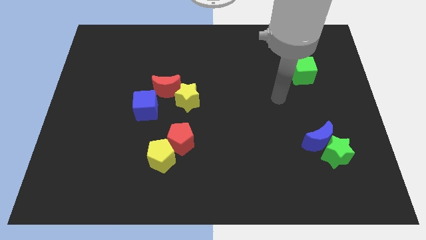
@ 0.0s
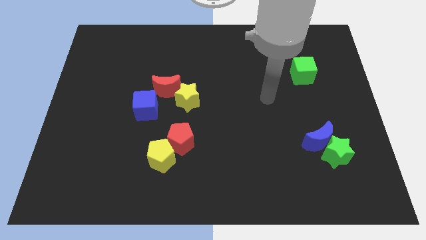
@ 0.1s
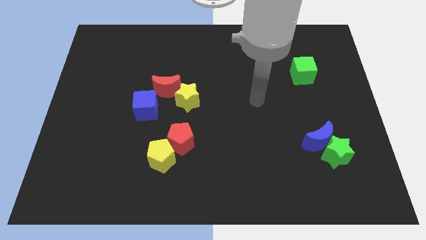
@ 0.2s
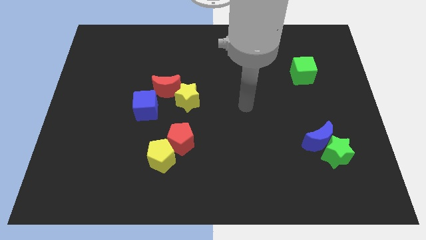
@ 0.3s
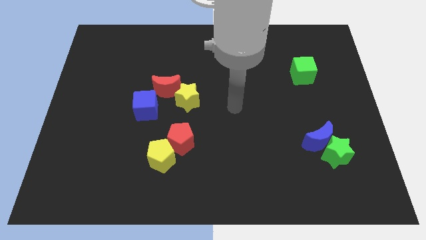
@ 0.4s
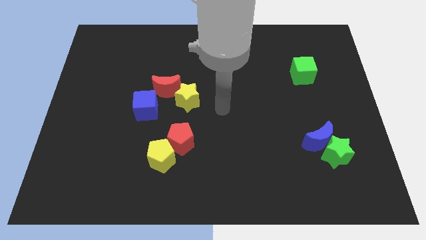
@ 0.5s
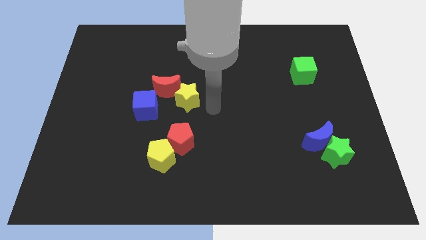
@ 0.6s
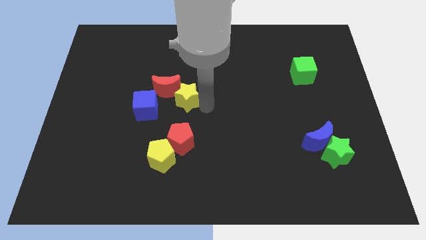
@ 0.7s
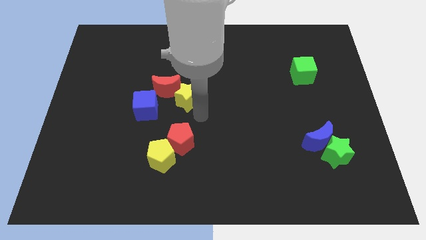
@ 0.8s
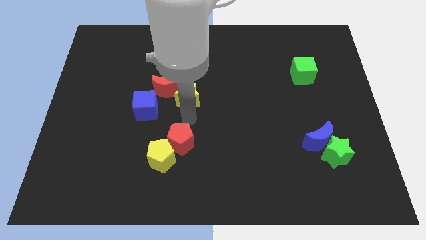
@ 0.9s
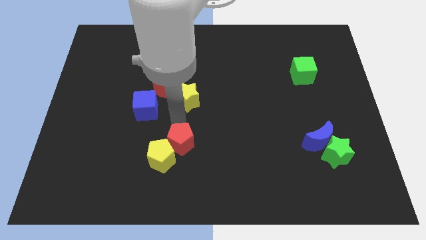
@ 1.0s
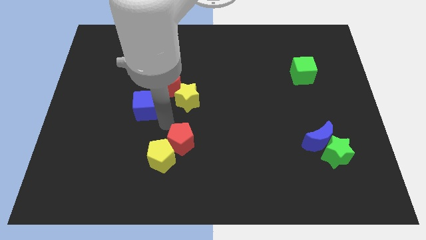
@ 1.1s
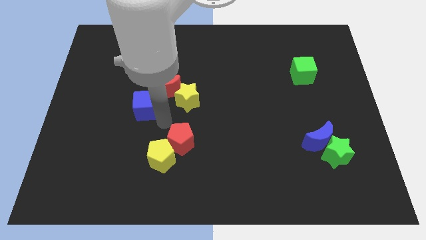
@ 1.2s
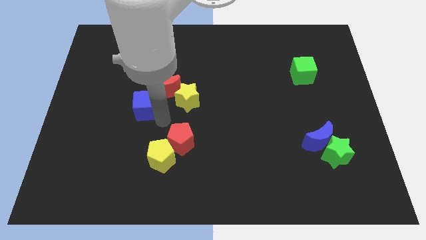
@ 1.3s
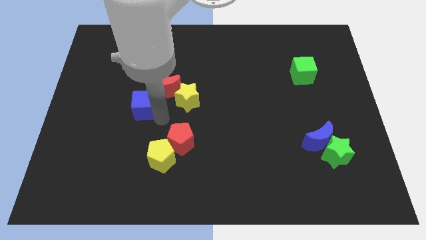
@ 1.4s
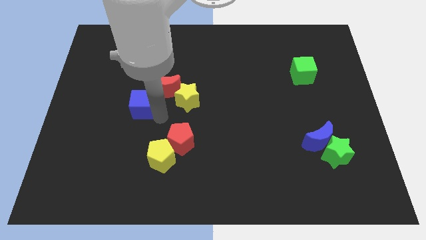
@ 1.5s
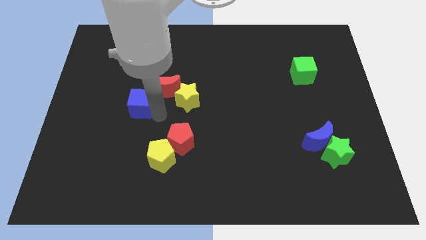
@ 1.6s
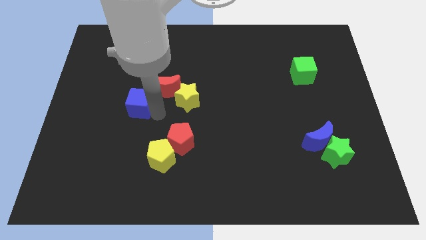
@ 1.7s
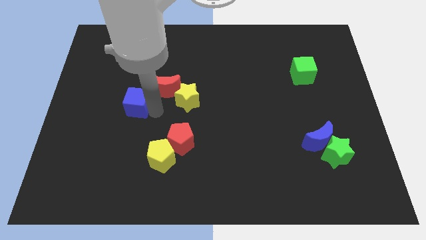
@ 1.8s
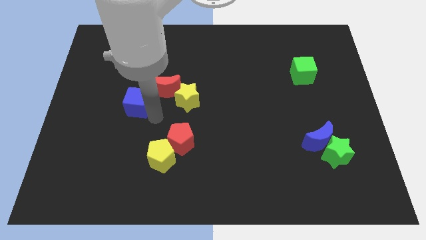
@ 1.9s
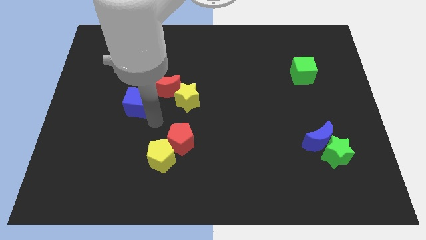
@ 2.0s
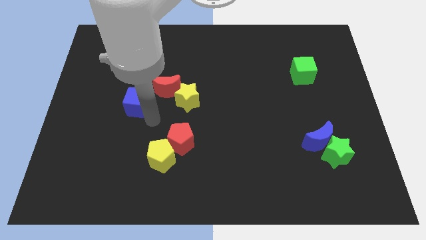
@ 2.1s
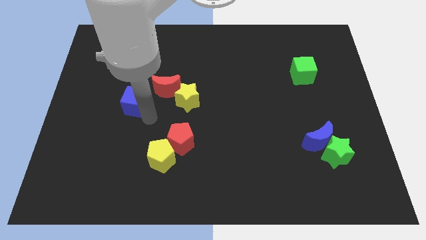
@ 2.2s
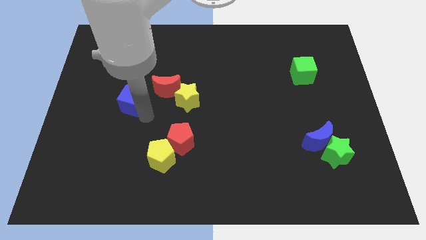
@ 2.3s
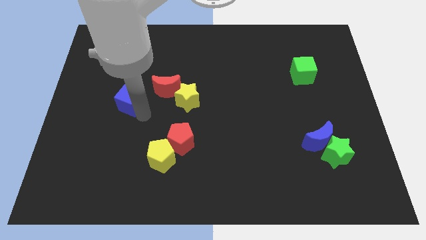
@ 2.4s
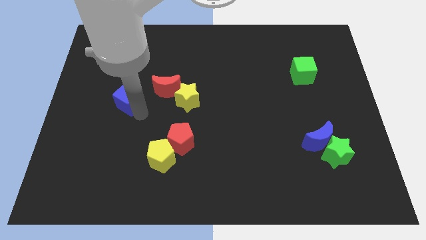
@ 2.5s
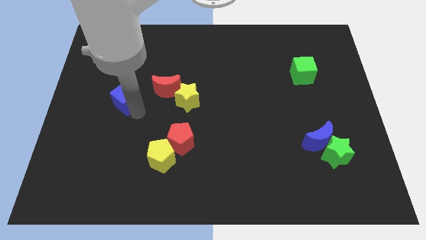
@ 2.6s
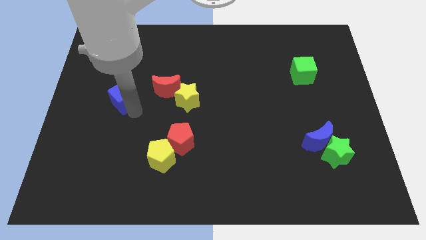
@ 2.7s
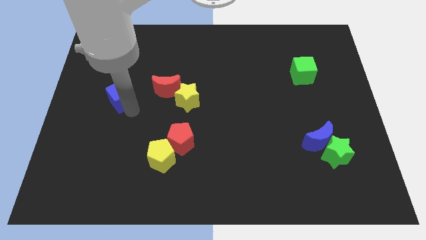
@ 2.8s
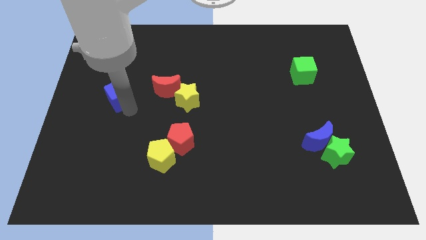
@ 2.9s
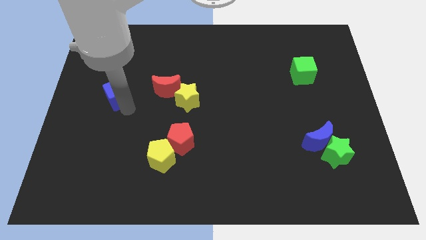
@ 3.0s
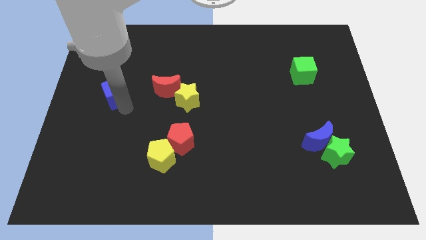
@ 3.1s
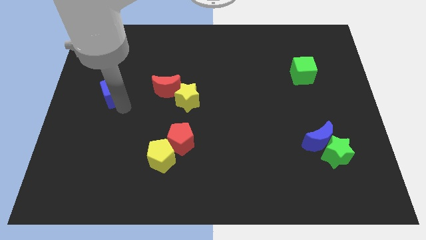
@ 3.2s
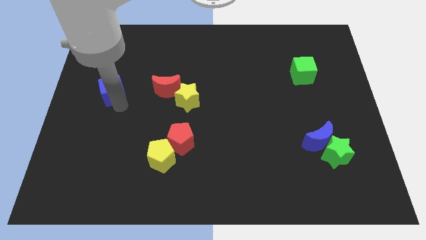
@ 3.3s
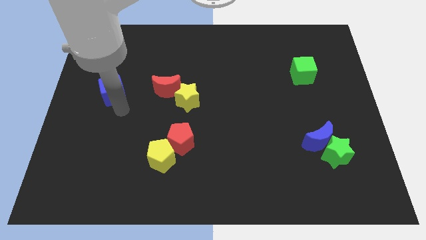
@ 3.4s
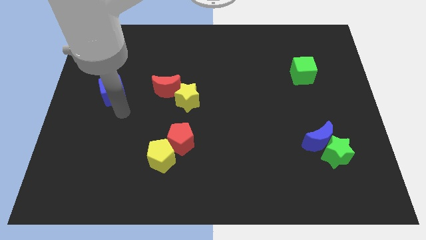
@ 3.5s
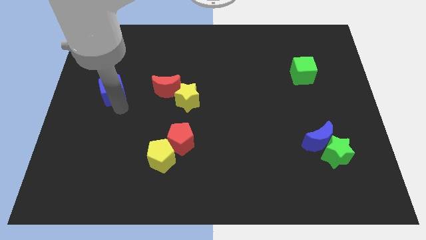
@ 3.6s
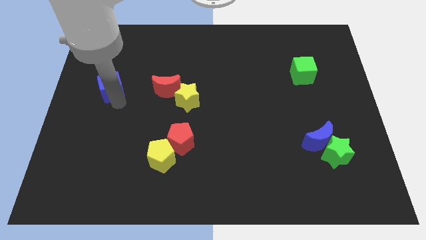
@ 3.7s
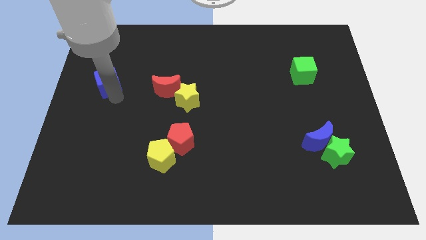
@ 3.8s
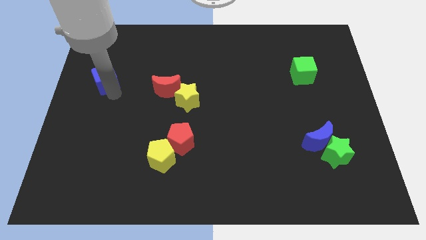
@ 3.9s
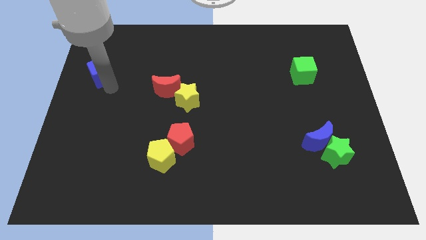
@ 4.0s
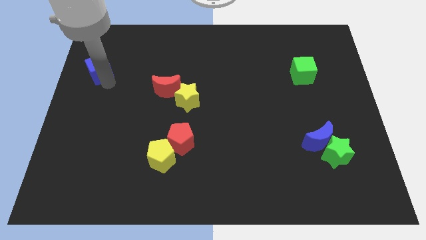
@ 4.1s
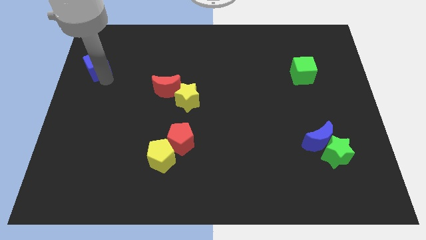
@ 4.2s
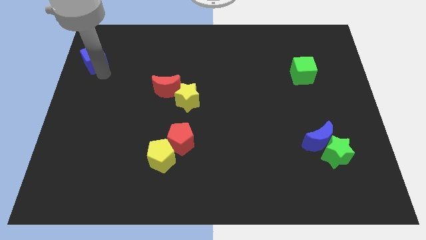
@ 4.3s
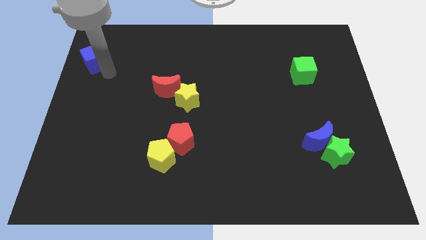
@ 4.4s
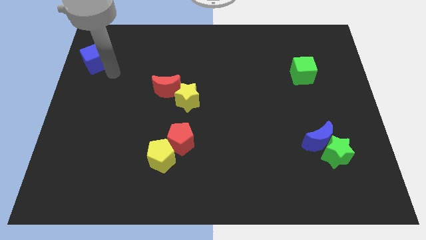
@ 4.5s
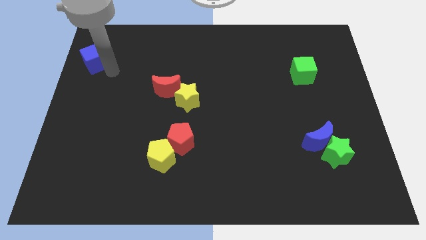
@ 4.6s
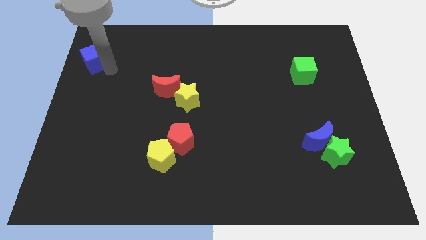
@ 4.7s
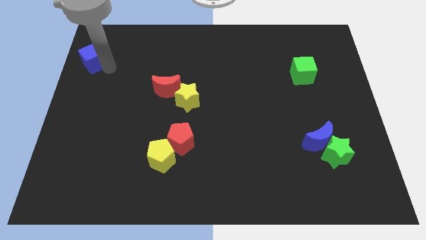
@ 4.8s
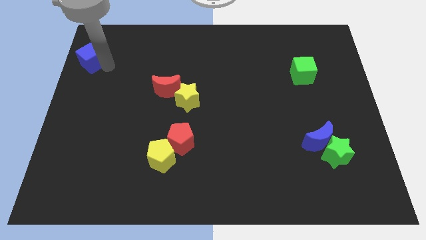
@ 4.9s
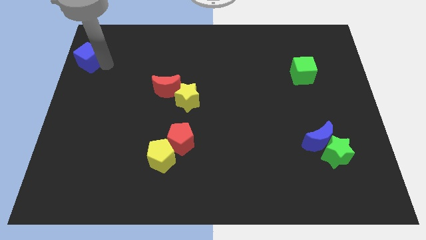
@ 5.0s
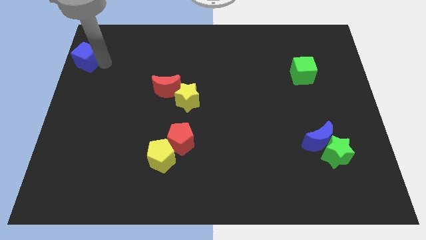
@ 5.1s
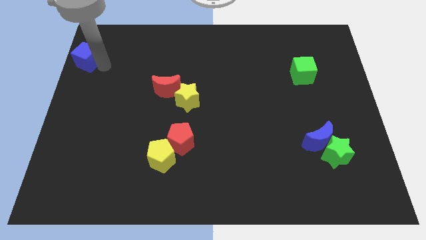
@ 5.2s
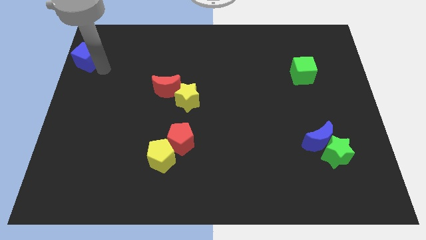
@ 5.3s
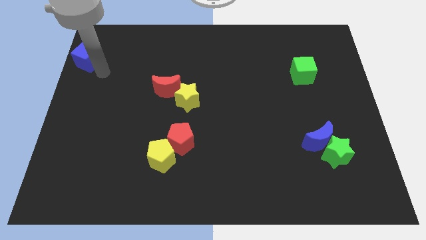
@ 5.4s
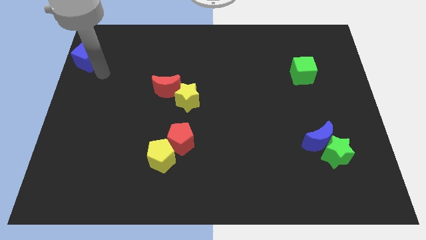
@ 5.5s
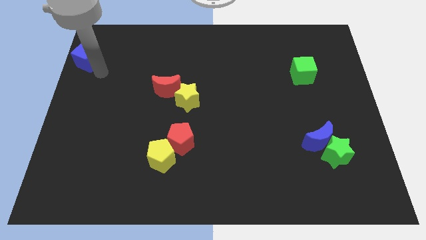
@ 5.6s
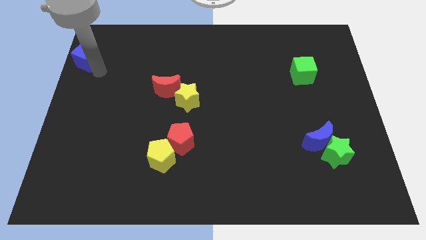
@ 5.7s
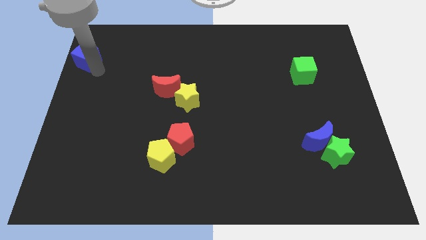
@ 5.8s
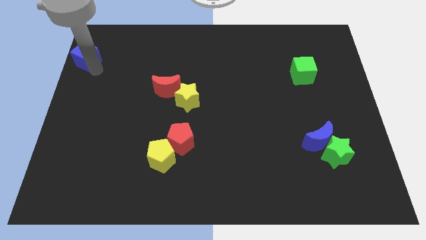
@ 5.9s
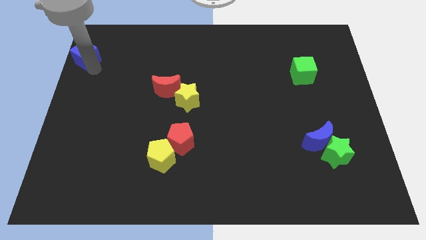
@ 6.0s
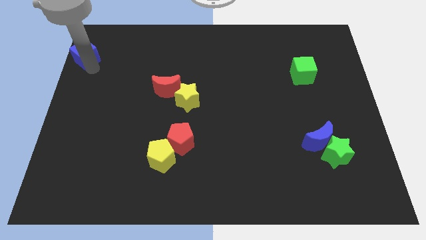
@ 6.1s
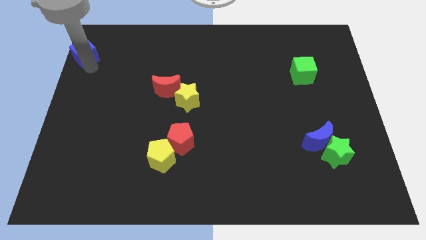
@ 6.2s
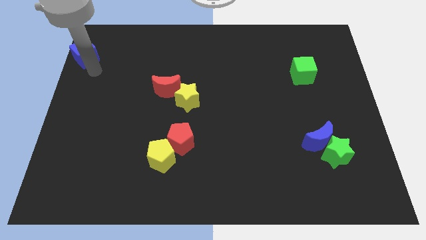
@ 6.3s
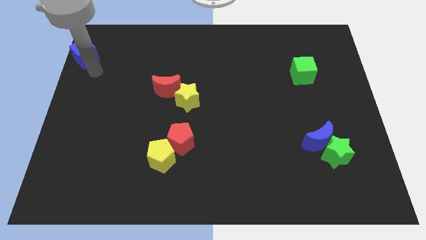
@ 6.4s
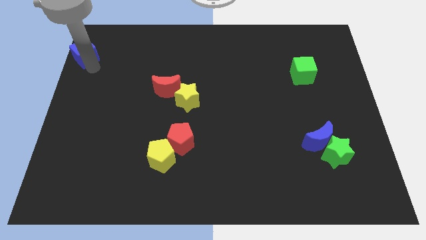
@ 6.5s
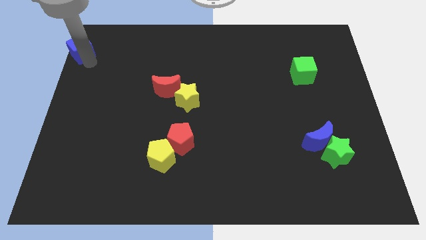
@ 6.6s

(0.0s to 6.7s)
put the blue cube to the top left corner

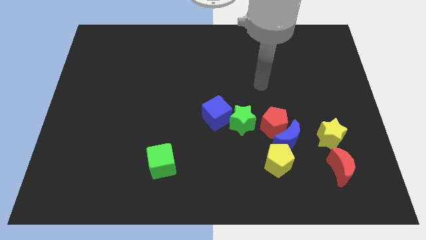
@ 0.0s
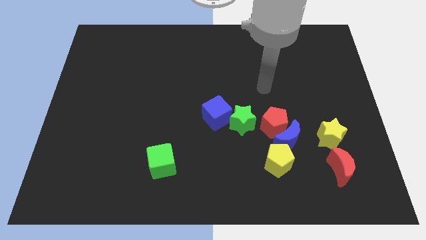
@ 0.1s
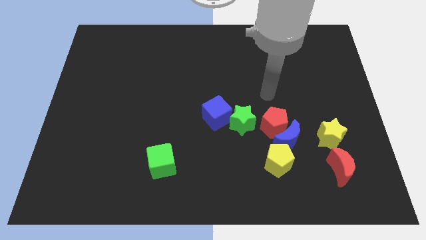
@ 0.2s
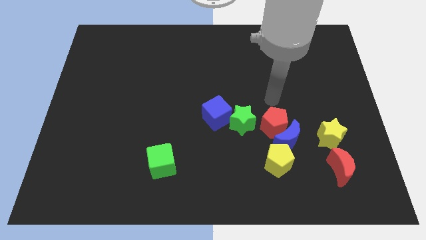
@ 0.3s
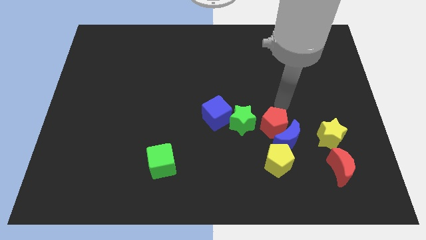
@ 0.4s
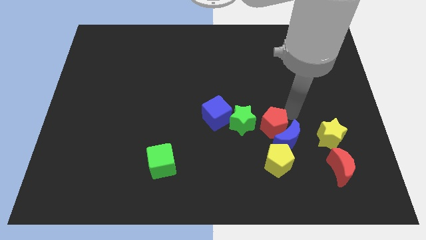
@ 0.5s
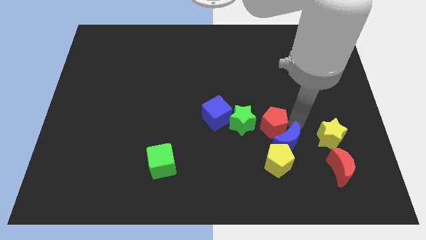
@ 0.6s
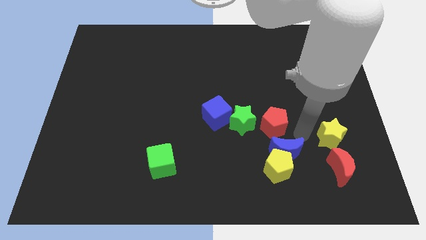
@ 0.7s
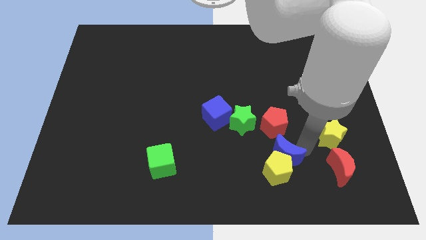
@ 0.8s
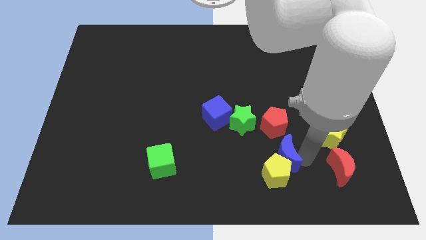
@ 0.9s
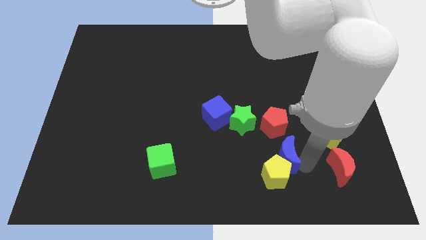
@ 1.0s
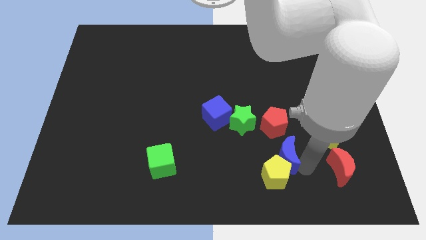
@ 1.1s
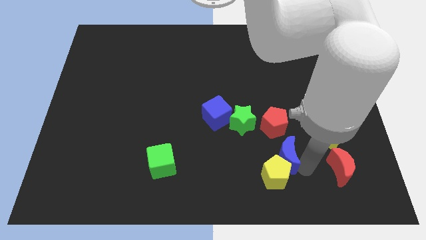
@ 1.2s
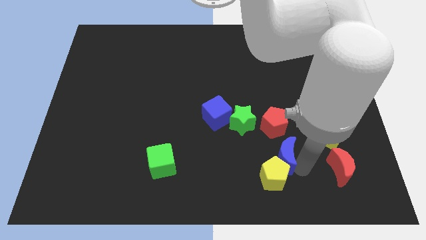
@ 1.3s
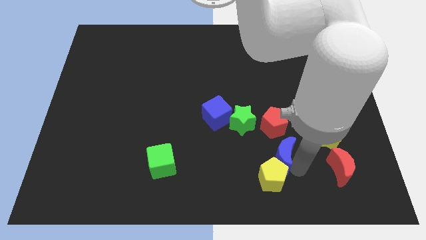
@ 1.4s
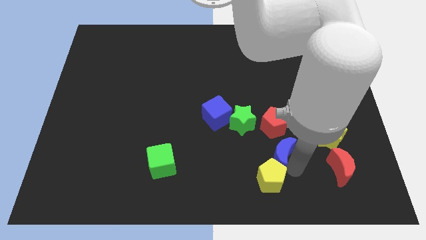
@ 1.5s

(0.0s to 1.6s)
push the yellow pentagon to the bottom
